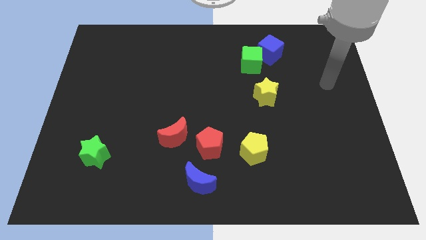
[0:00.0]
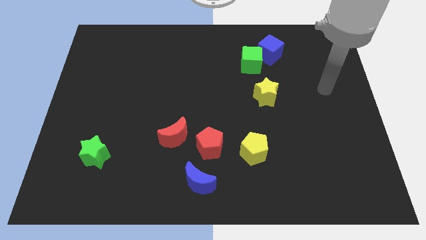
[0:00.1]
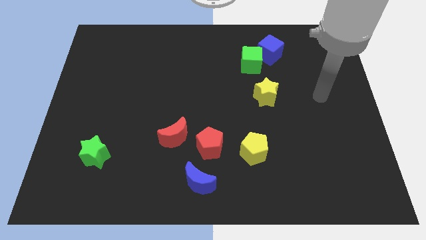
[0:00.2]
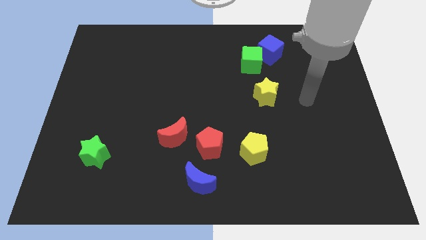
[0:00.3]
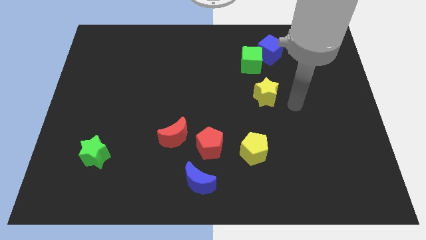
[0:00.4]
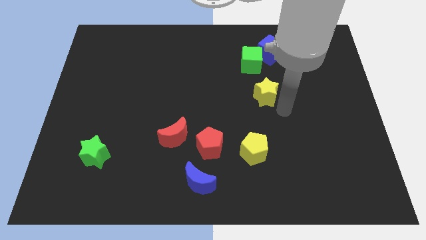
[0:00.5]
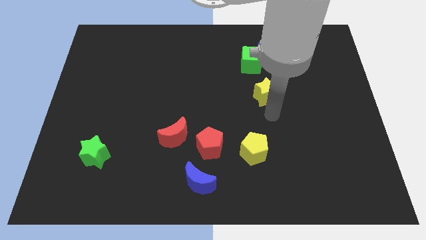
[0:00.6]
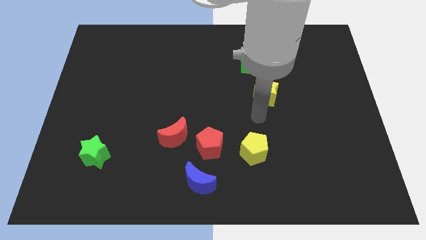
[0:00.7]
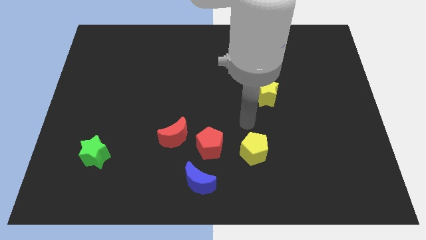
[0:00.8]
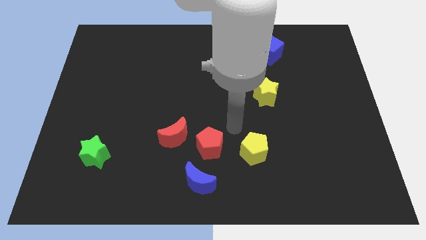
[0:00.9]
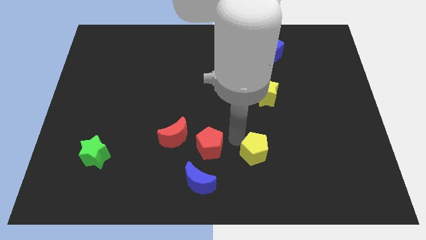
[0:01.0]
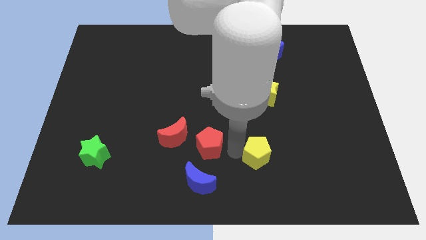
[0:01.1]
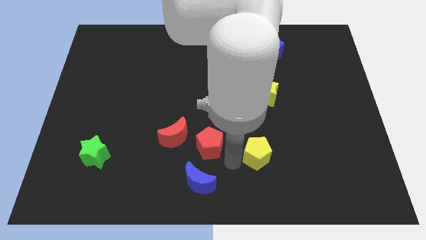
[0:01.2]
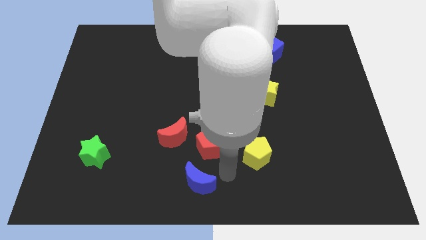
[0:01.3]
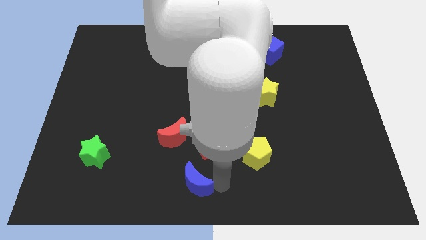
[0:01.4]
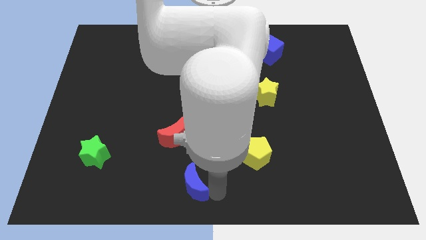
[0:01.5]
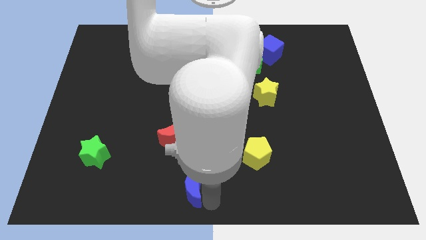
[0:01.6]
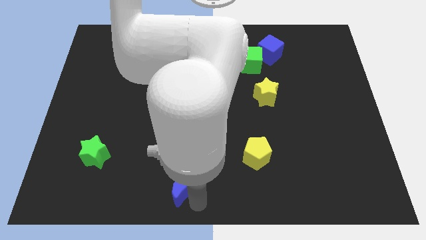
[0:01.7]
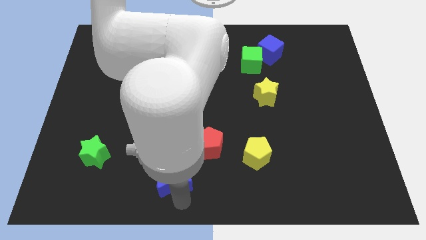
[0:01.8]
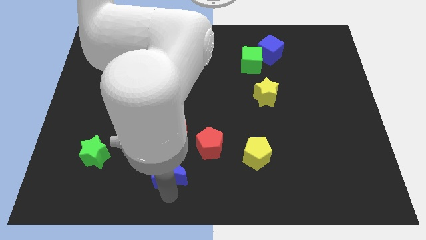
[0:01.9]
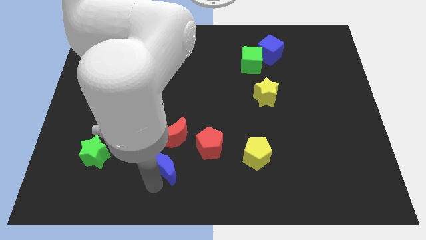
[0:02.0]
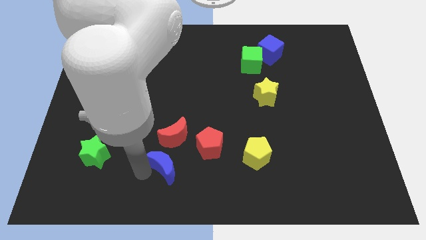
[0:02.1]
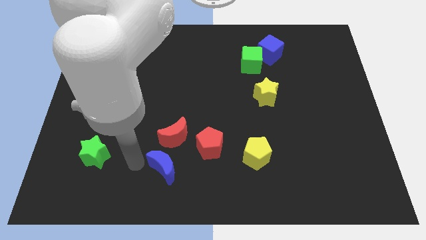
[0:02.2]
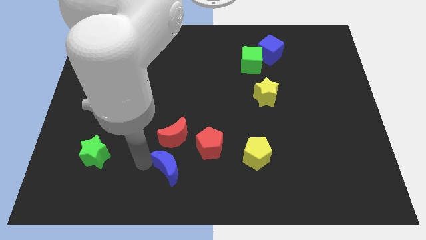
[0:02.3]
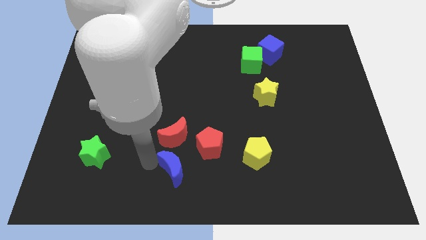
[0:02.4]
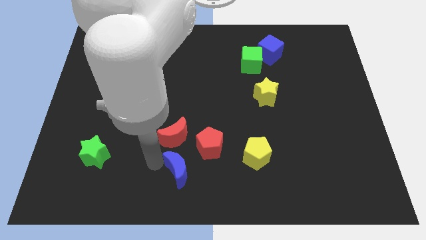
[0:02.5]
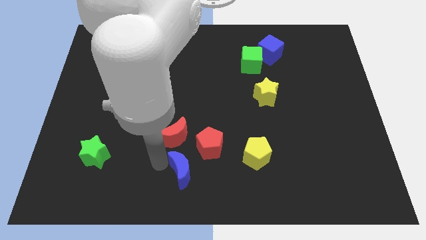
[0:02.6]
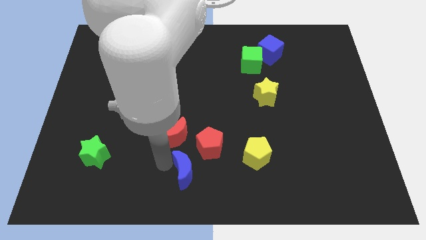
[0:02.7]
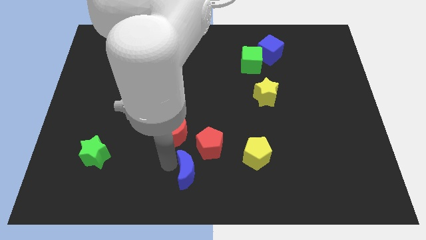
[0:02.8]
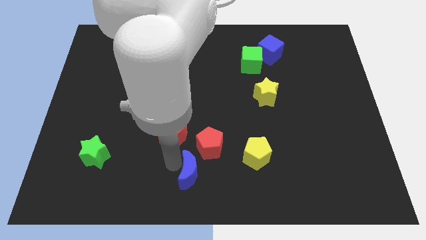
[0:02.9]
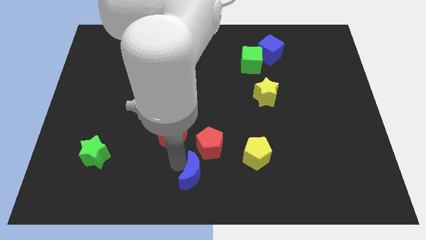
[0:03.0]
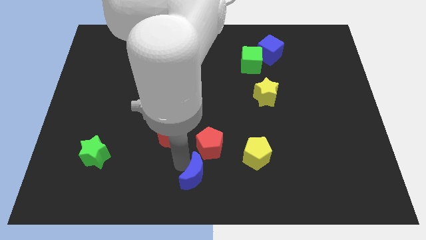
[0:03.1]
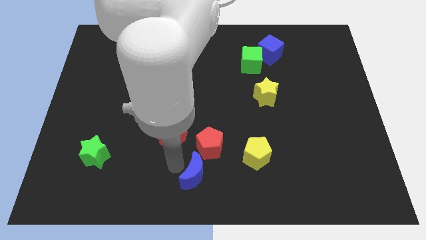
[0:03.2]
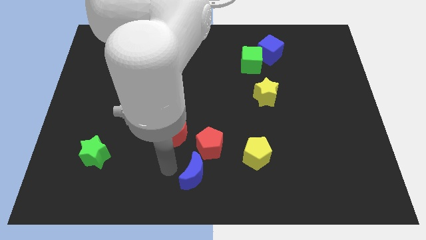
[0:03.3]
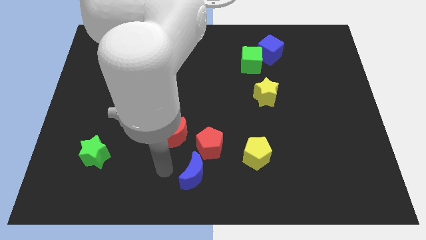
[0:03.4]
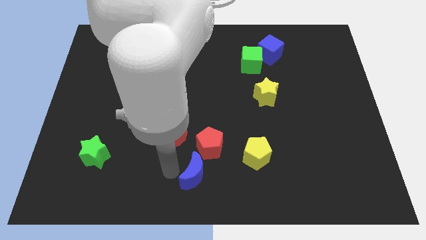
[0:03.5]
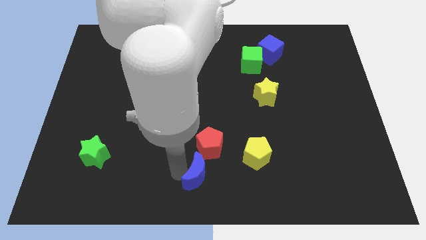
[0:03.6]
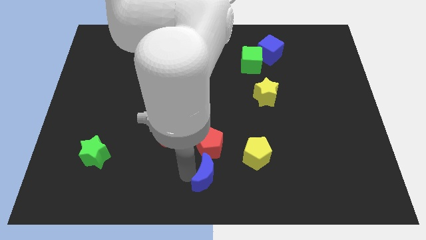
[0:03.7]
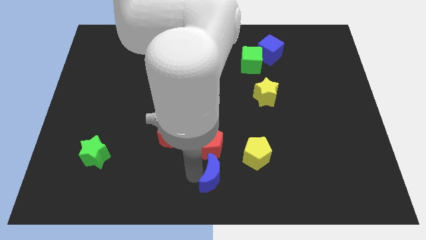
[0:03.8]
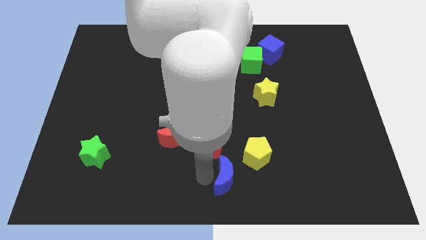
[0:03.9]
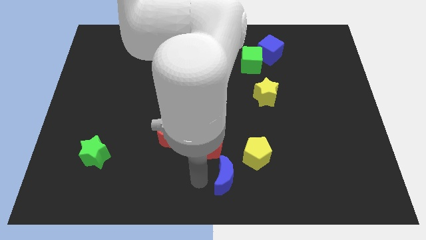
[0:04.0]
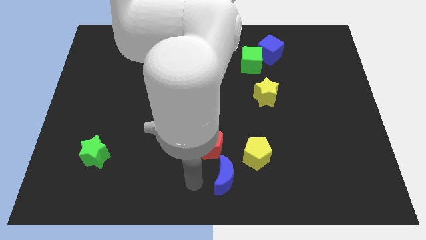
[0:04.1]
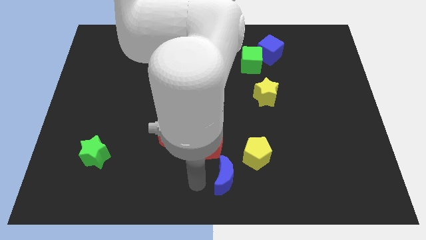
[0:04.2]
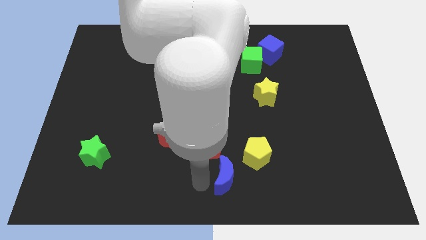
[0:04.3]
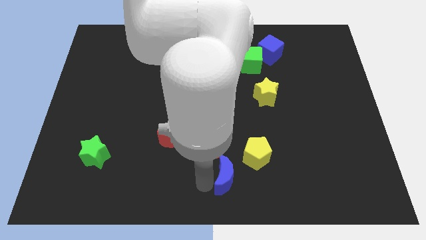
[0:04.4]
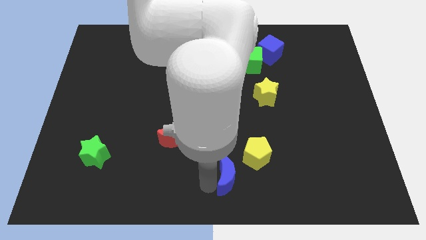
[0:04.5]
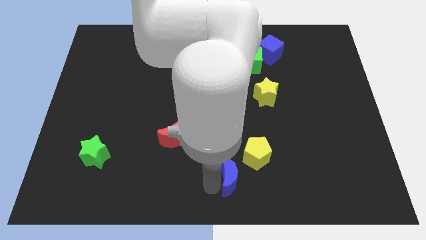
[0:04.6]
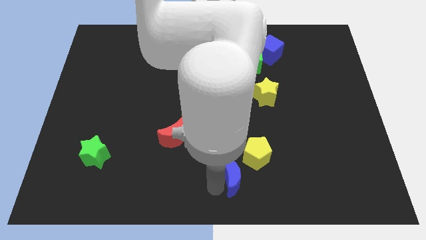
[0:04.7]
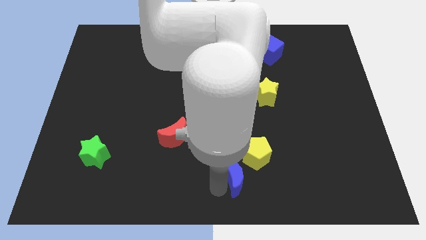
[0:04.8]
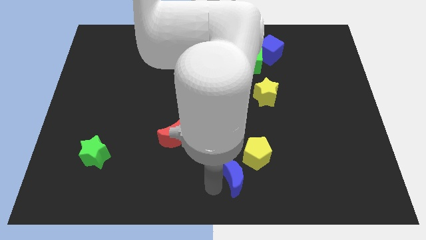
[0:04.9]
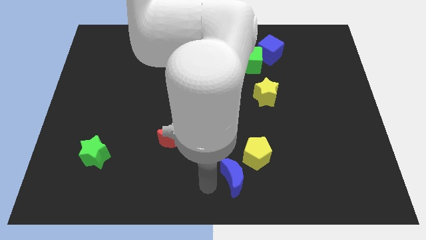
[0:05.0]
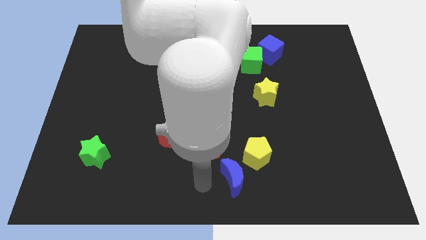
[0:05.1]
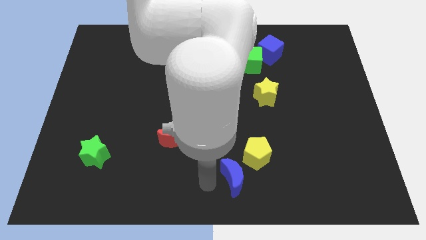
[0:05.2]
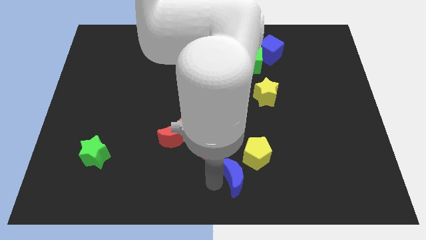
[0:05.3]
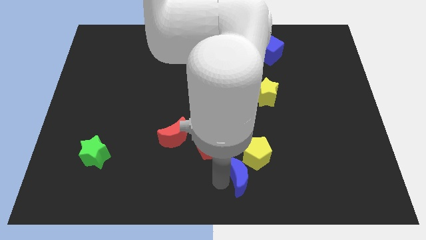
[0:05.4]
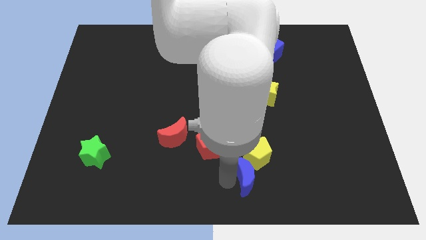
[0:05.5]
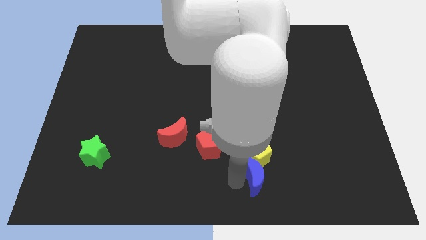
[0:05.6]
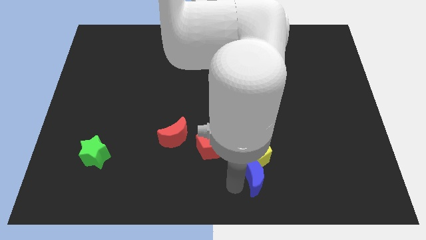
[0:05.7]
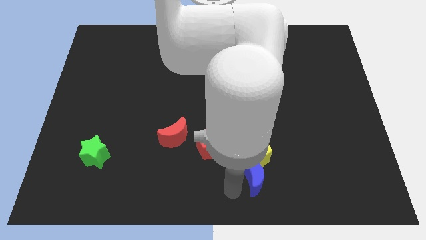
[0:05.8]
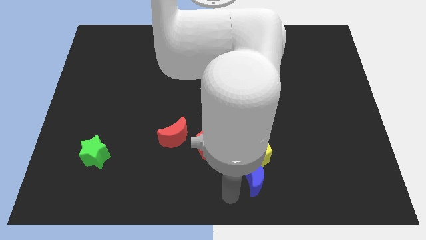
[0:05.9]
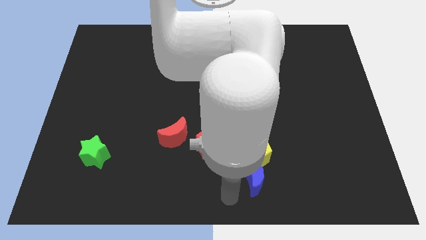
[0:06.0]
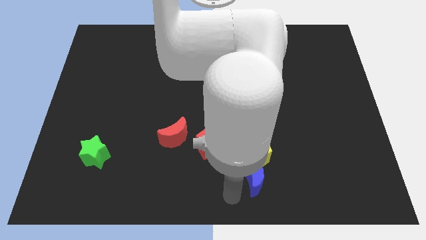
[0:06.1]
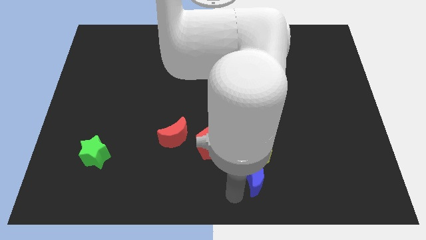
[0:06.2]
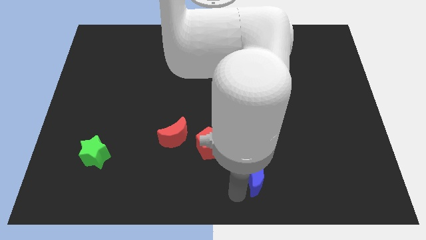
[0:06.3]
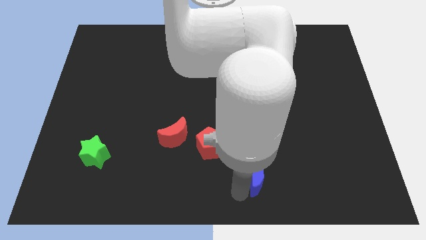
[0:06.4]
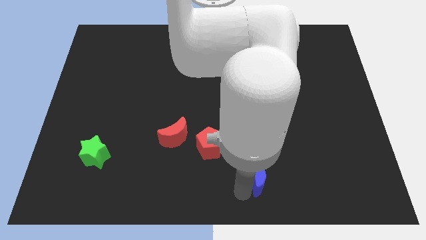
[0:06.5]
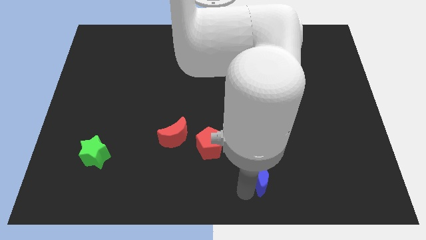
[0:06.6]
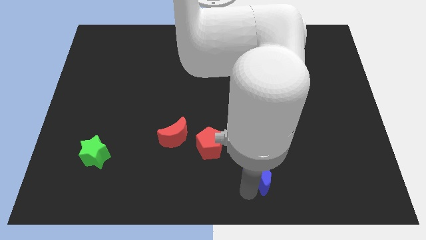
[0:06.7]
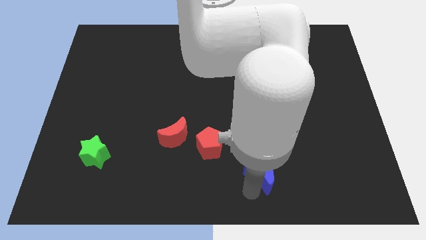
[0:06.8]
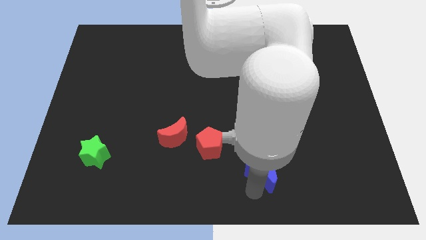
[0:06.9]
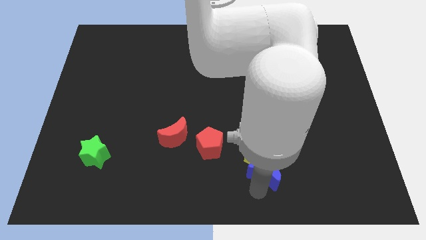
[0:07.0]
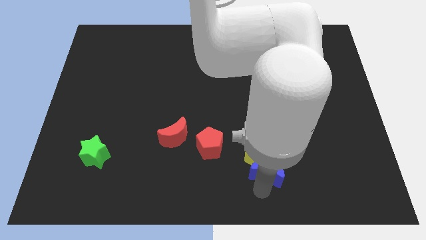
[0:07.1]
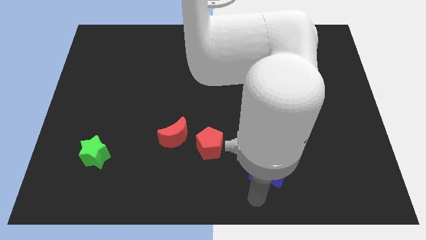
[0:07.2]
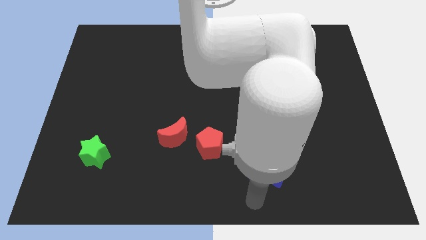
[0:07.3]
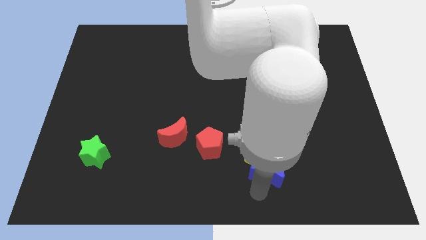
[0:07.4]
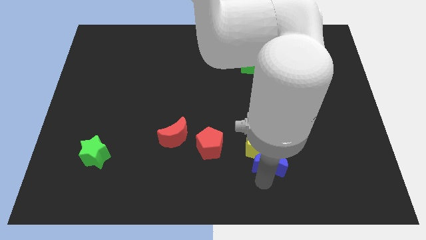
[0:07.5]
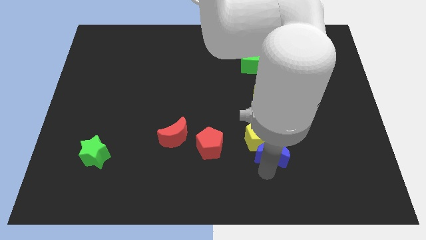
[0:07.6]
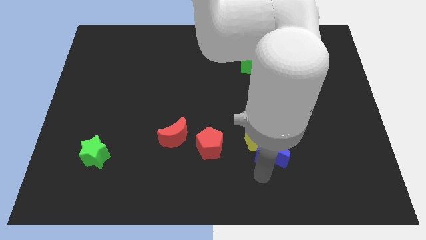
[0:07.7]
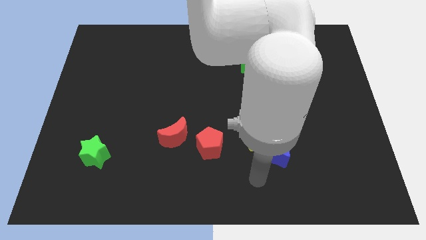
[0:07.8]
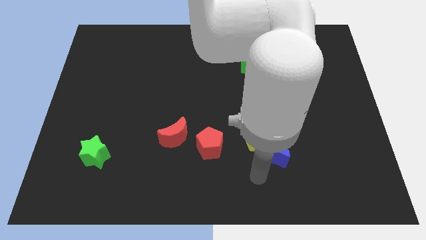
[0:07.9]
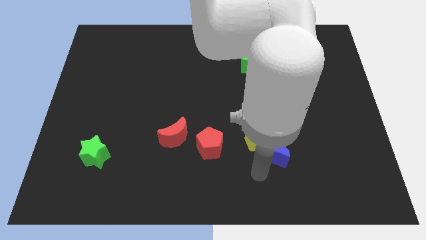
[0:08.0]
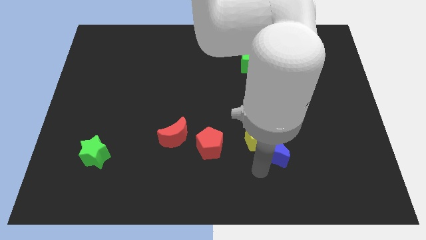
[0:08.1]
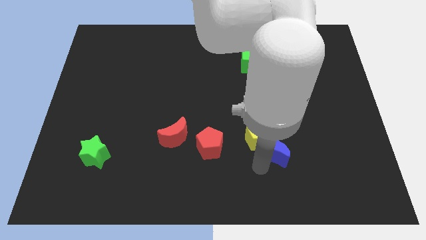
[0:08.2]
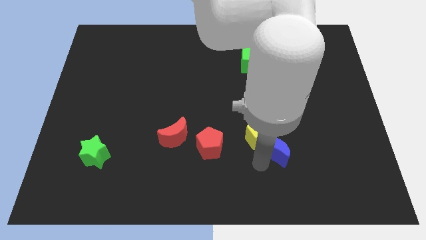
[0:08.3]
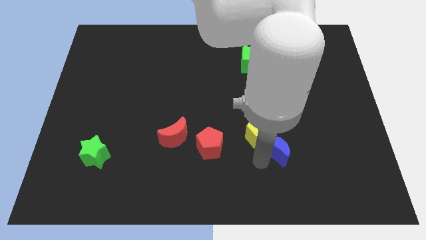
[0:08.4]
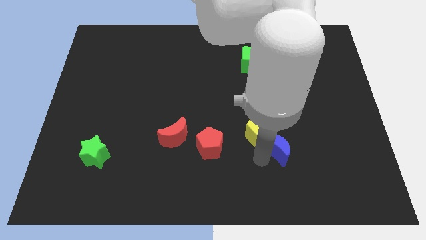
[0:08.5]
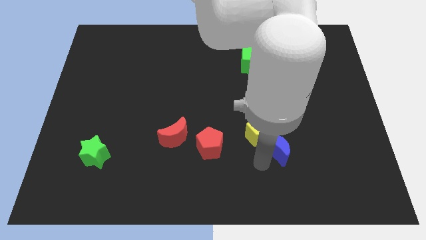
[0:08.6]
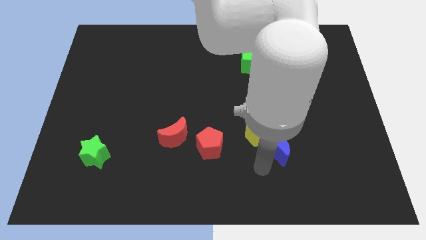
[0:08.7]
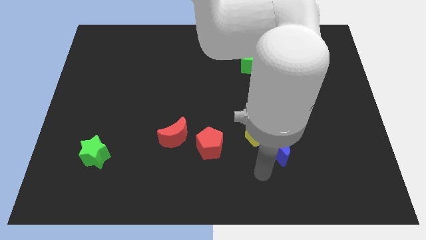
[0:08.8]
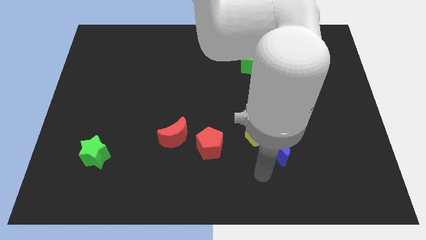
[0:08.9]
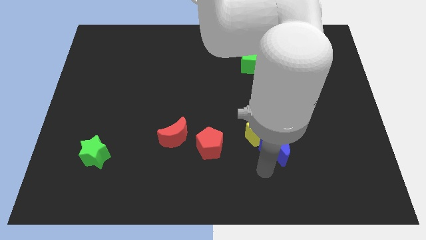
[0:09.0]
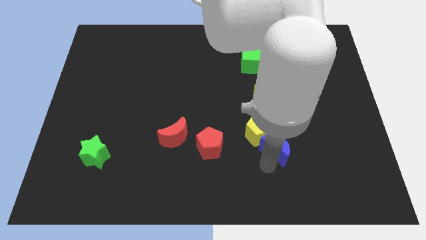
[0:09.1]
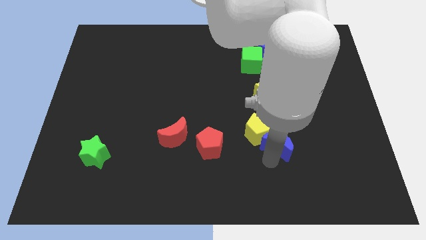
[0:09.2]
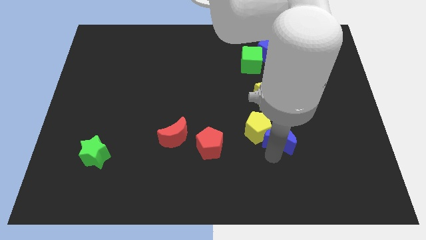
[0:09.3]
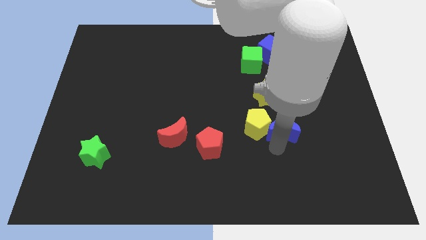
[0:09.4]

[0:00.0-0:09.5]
push the blue moon up and right diagonally
